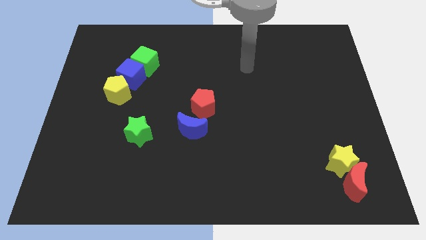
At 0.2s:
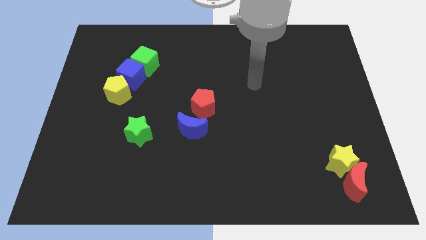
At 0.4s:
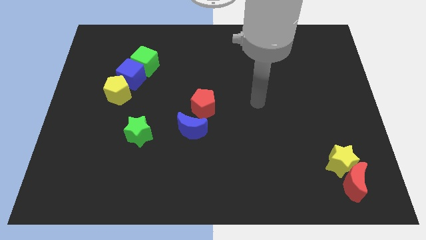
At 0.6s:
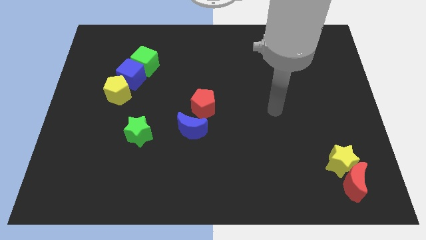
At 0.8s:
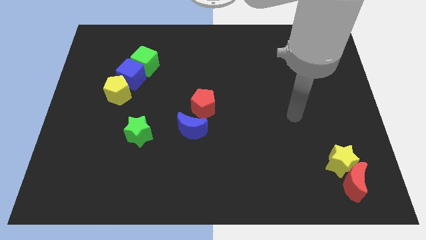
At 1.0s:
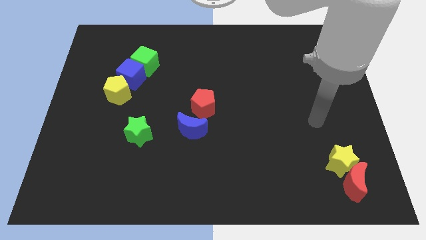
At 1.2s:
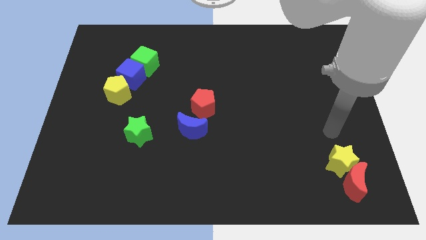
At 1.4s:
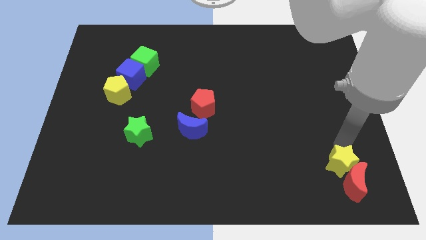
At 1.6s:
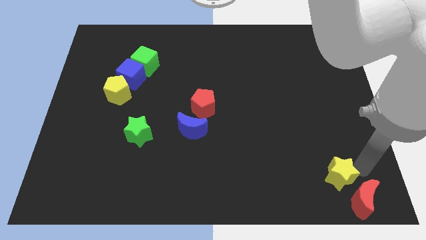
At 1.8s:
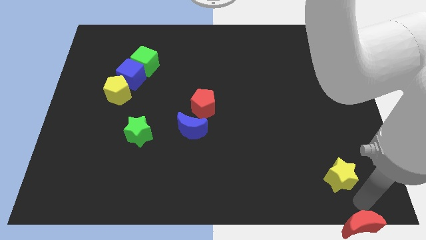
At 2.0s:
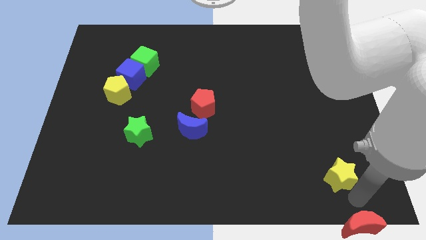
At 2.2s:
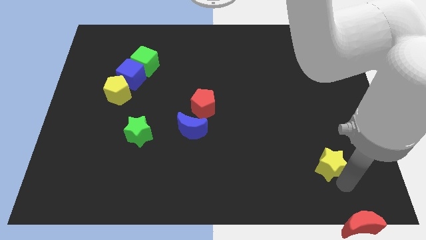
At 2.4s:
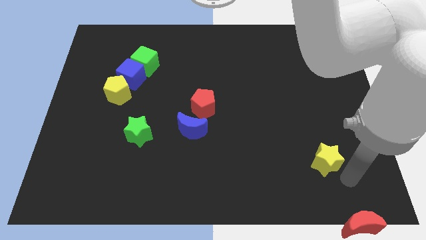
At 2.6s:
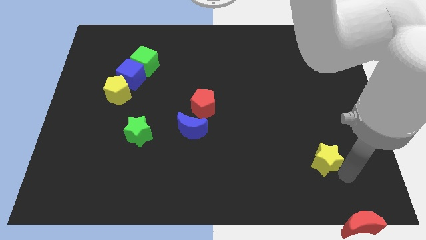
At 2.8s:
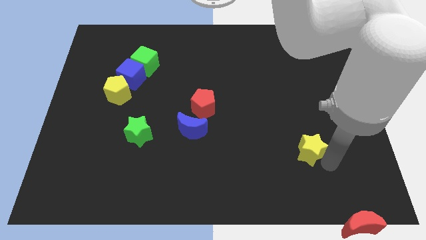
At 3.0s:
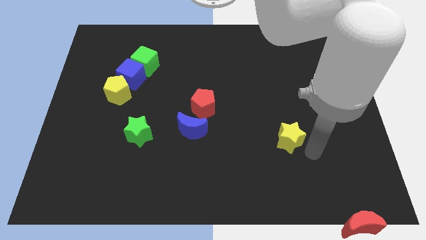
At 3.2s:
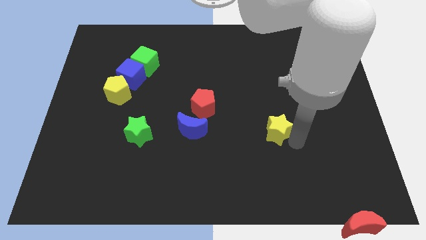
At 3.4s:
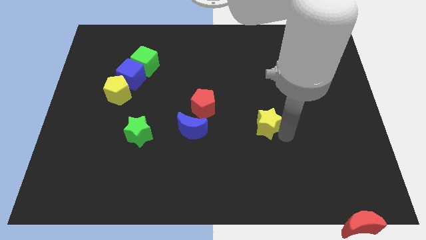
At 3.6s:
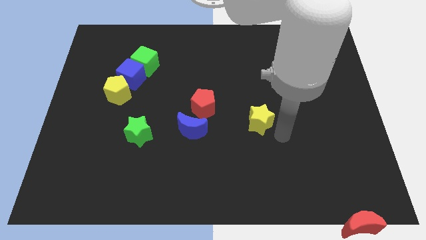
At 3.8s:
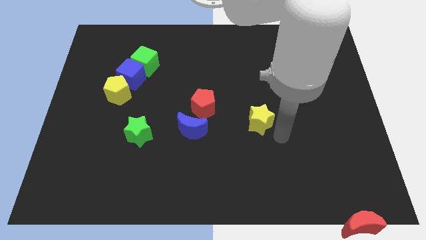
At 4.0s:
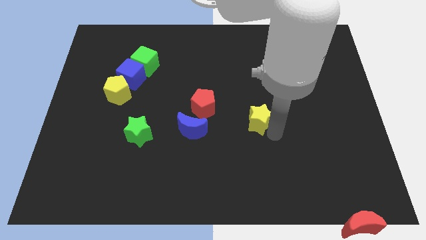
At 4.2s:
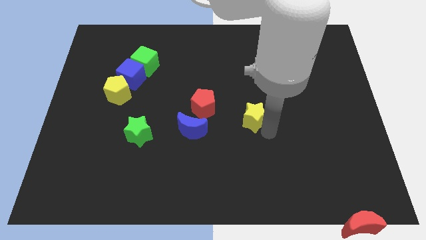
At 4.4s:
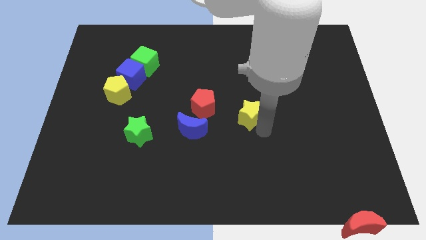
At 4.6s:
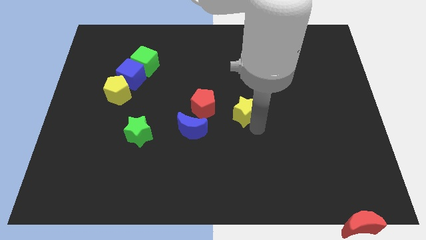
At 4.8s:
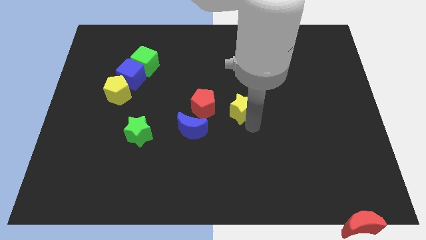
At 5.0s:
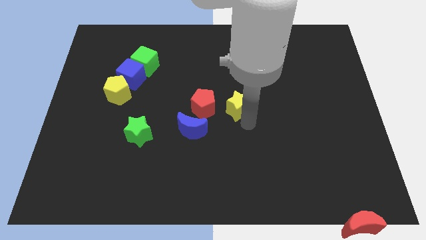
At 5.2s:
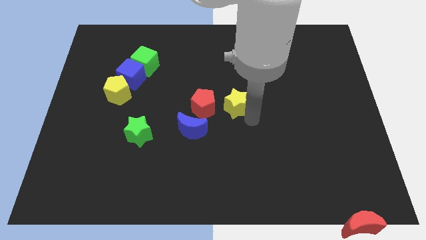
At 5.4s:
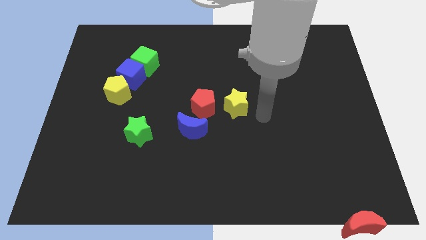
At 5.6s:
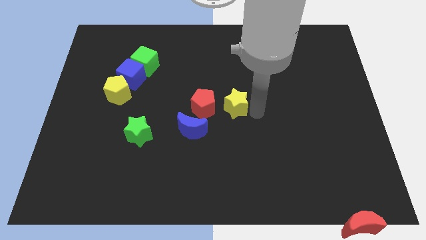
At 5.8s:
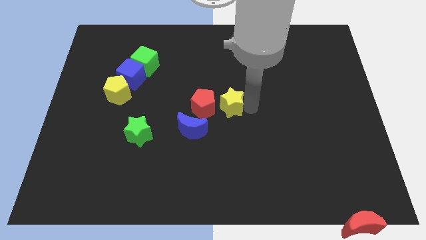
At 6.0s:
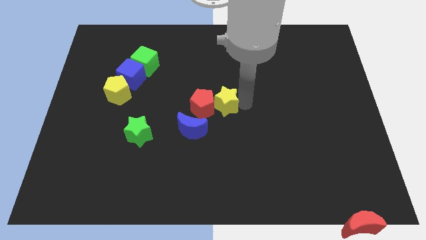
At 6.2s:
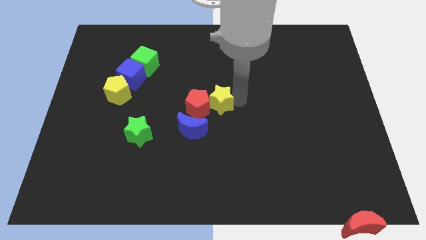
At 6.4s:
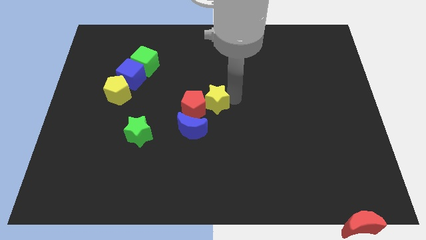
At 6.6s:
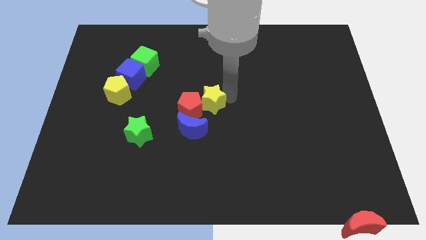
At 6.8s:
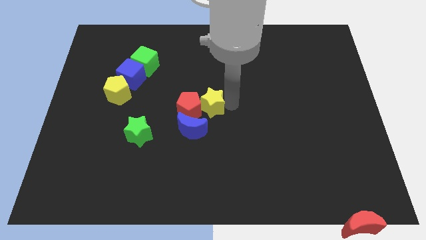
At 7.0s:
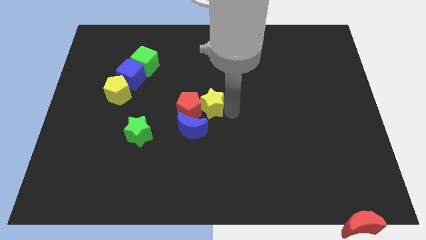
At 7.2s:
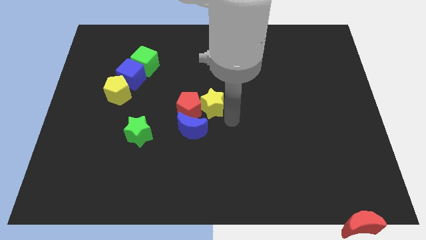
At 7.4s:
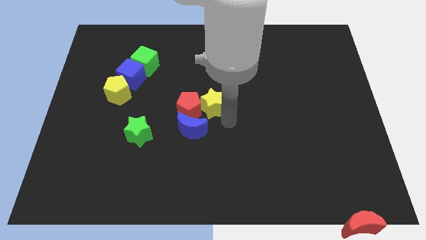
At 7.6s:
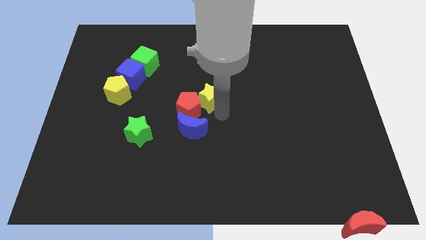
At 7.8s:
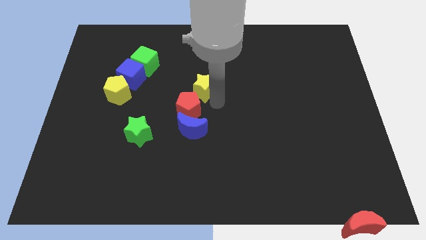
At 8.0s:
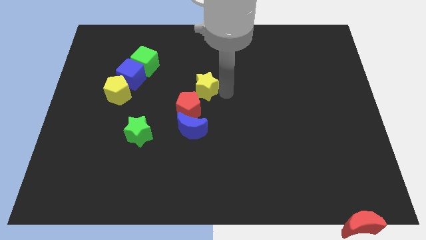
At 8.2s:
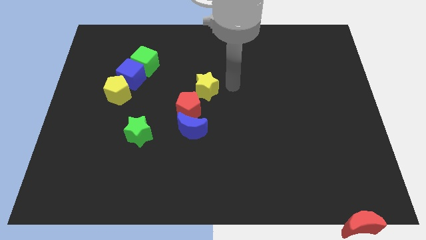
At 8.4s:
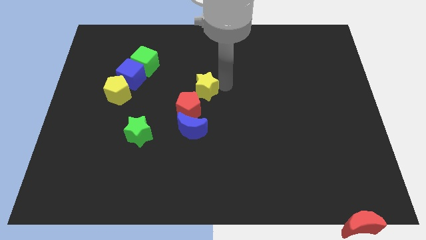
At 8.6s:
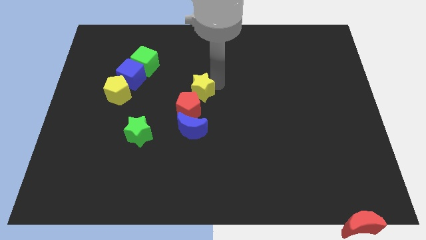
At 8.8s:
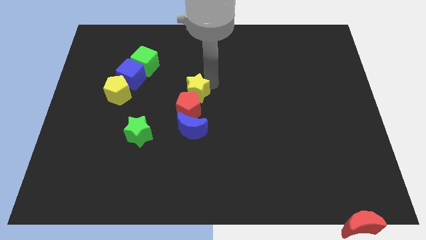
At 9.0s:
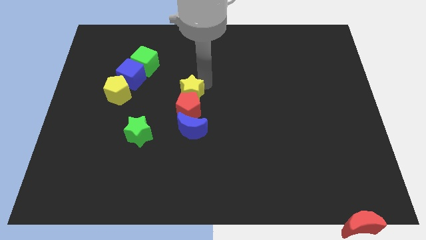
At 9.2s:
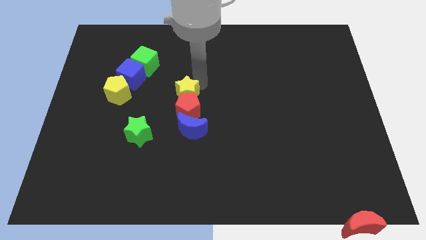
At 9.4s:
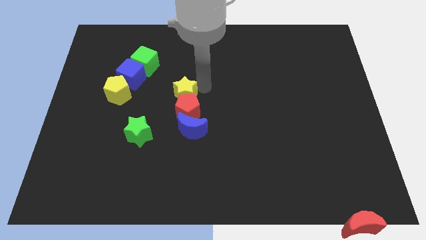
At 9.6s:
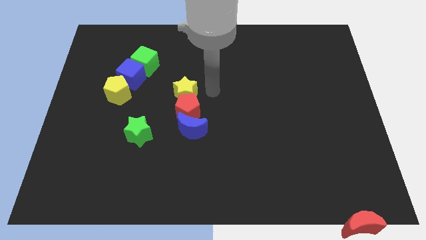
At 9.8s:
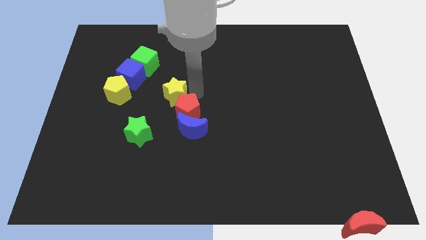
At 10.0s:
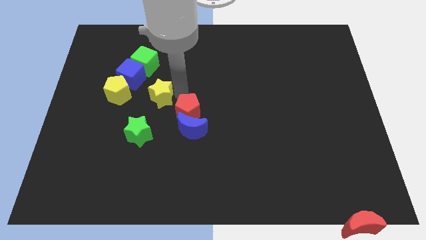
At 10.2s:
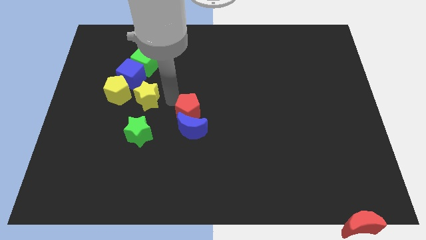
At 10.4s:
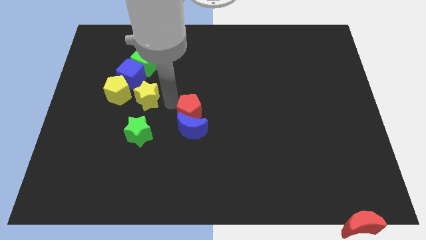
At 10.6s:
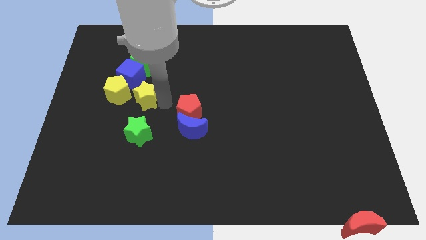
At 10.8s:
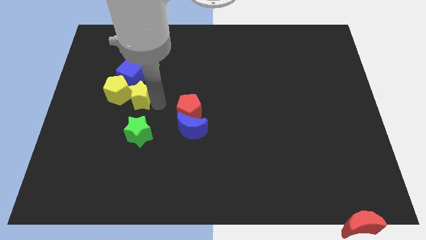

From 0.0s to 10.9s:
move the yellow star next to the yellow pentagon

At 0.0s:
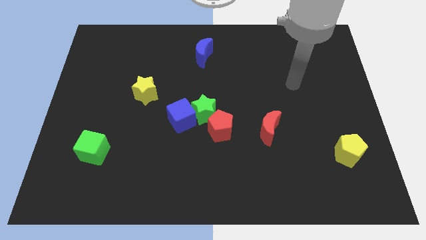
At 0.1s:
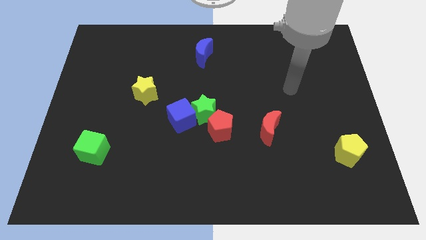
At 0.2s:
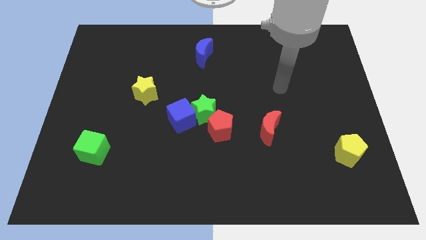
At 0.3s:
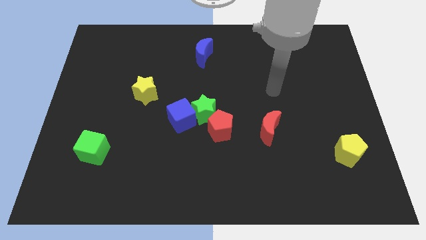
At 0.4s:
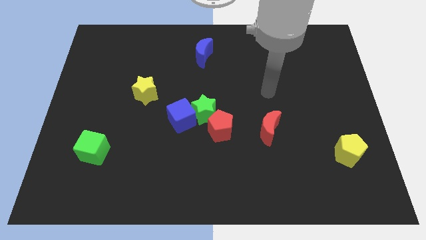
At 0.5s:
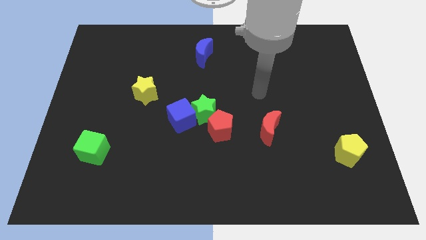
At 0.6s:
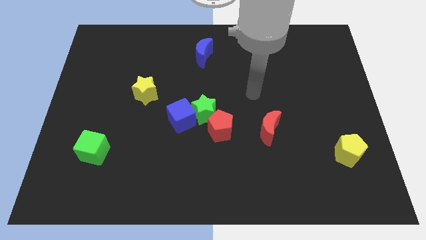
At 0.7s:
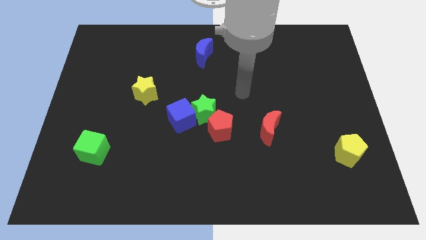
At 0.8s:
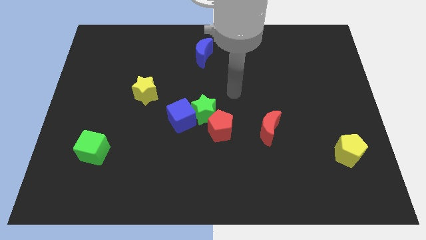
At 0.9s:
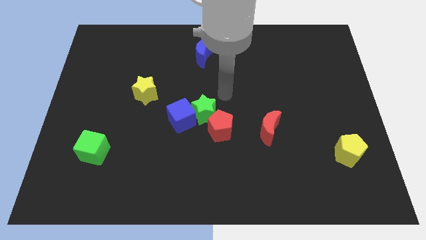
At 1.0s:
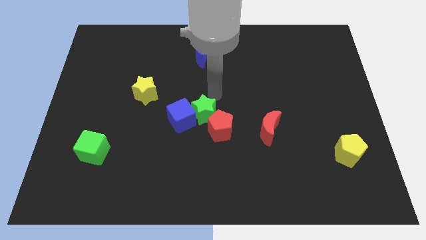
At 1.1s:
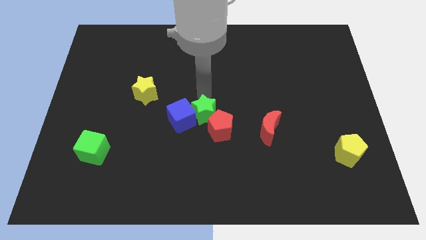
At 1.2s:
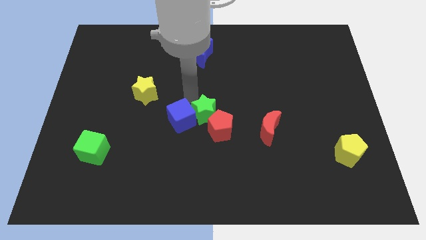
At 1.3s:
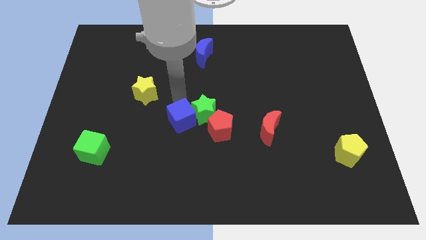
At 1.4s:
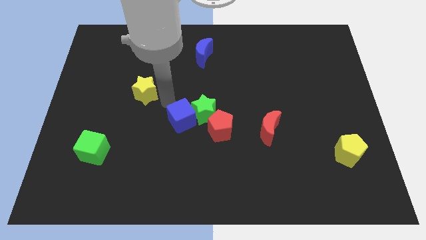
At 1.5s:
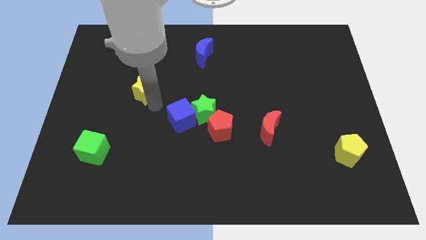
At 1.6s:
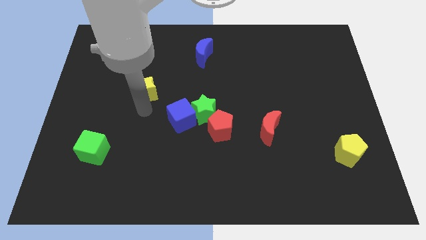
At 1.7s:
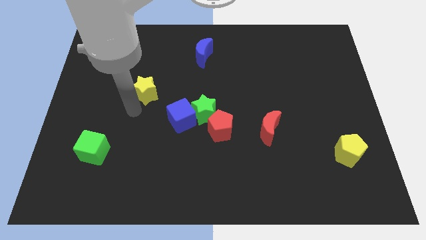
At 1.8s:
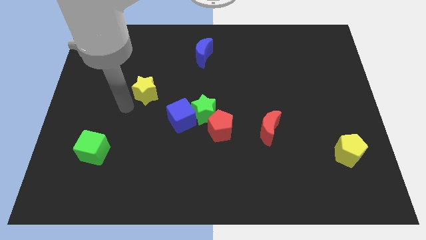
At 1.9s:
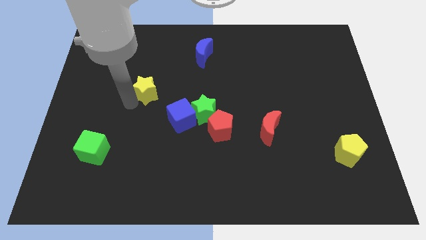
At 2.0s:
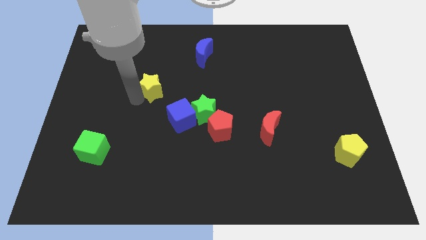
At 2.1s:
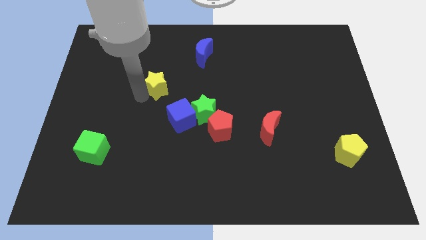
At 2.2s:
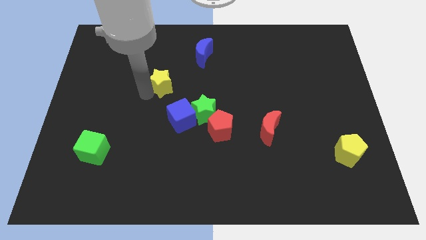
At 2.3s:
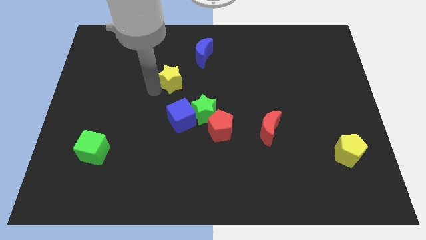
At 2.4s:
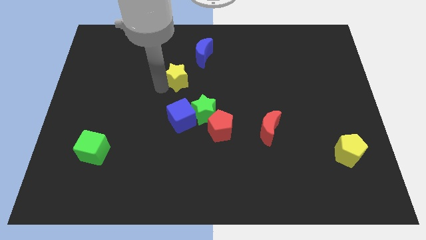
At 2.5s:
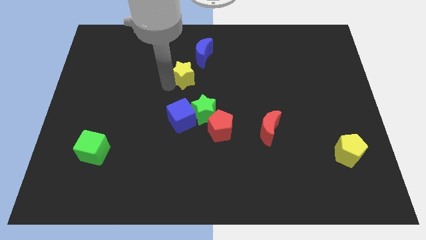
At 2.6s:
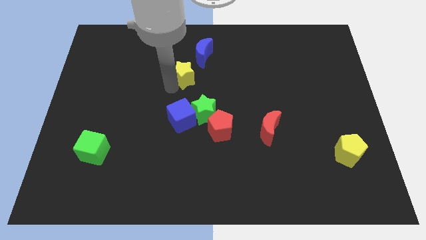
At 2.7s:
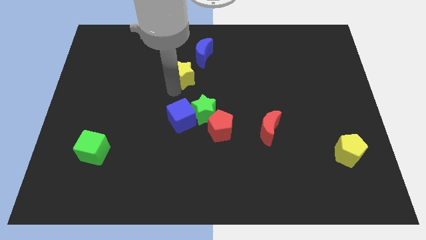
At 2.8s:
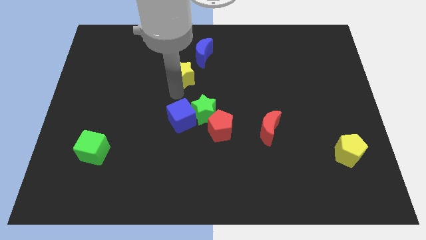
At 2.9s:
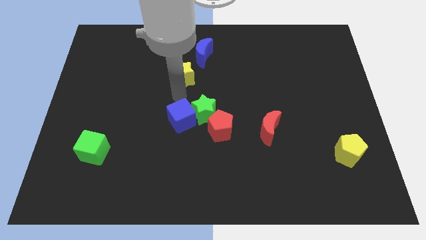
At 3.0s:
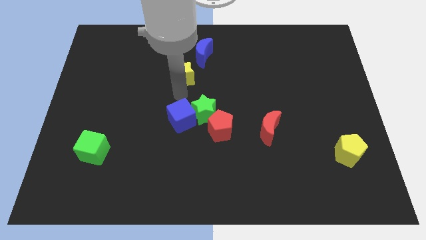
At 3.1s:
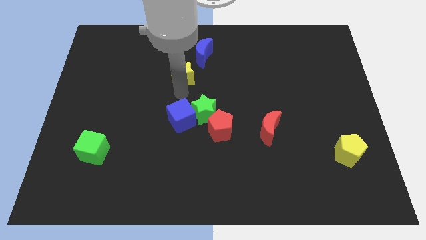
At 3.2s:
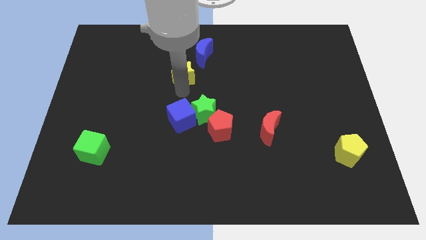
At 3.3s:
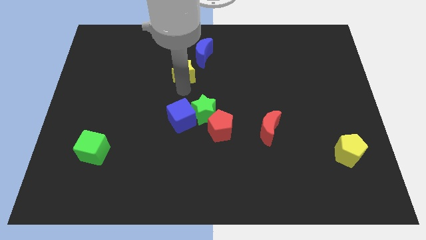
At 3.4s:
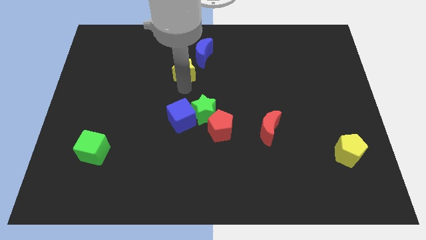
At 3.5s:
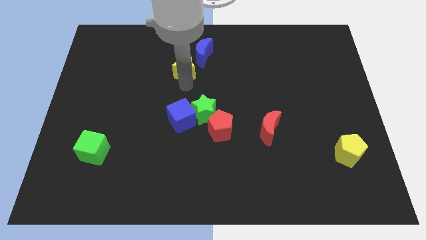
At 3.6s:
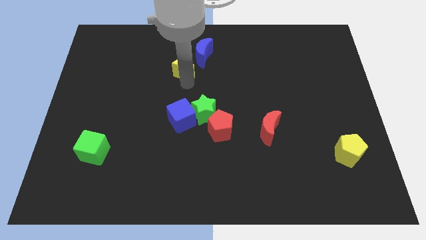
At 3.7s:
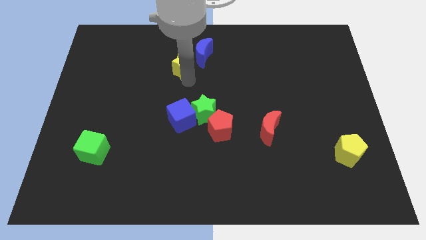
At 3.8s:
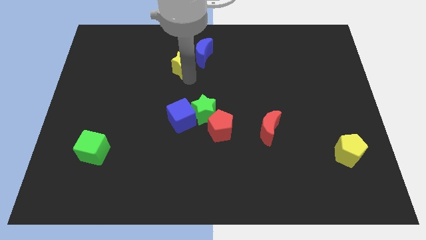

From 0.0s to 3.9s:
push the yellow star towards the blue moon
